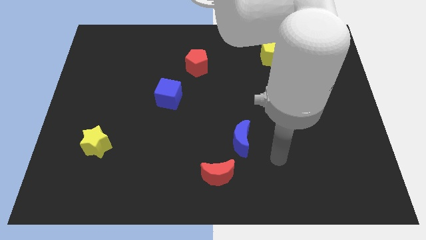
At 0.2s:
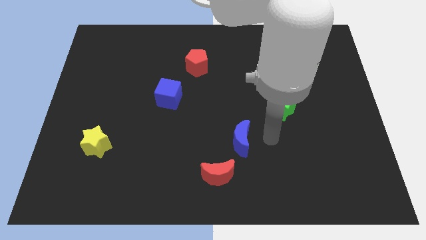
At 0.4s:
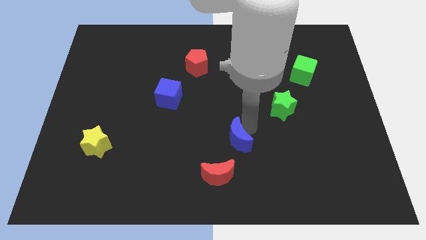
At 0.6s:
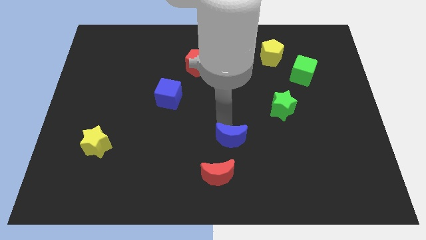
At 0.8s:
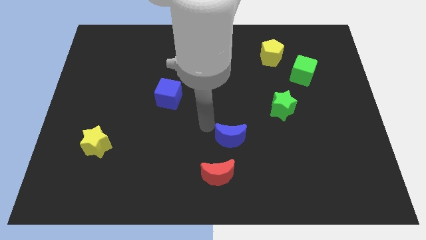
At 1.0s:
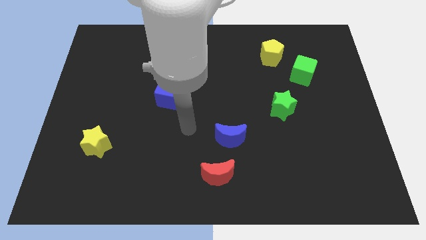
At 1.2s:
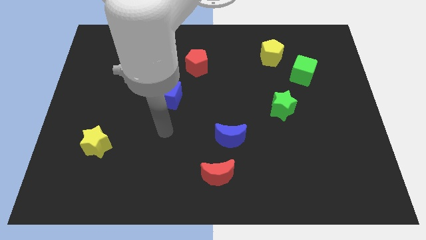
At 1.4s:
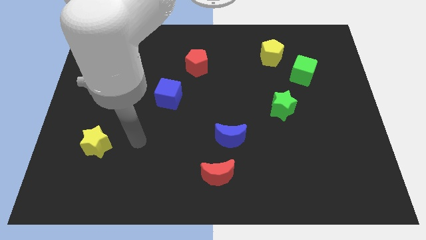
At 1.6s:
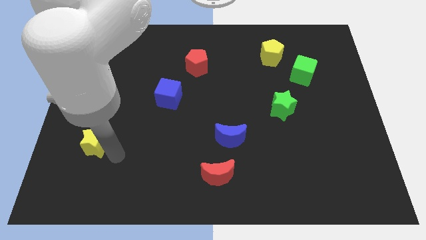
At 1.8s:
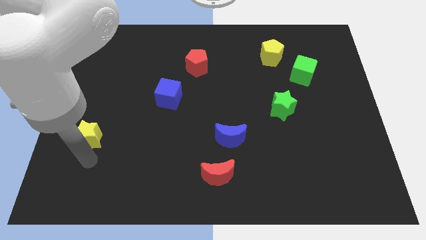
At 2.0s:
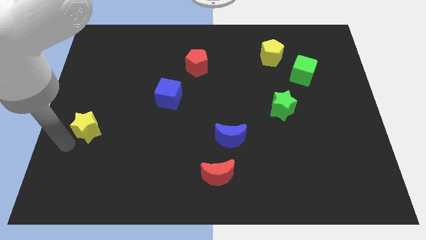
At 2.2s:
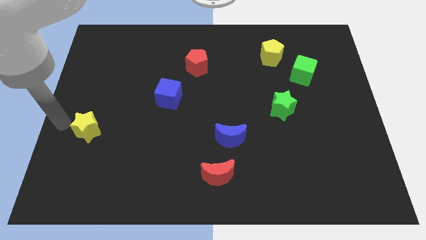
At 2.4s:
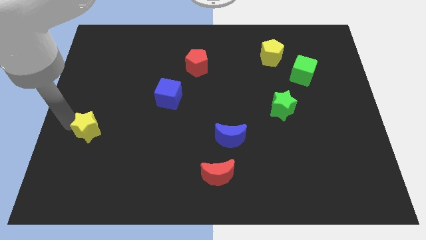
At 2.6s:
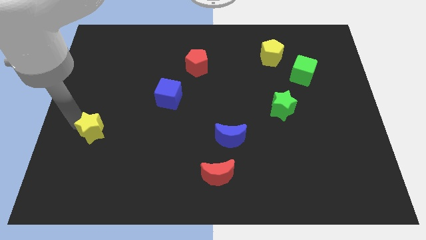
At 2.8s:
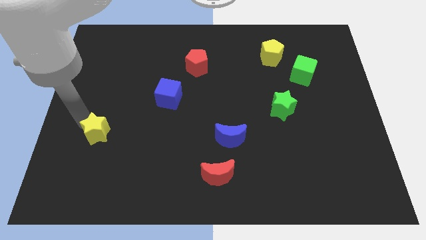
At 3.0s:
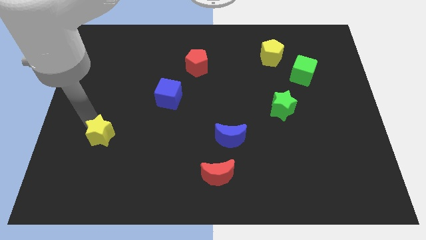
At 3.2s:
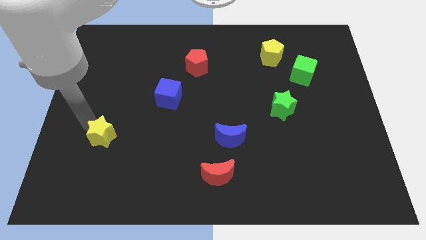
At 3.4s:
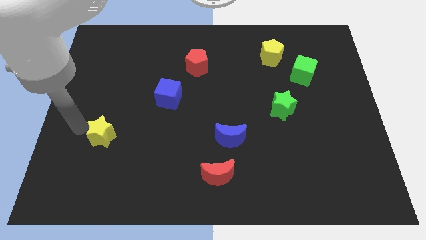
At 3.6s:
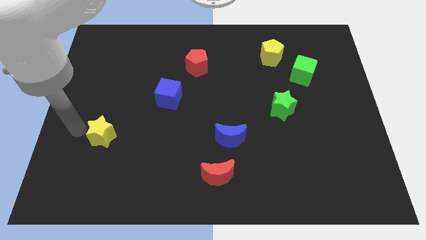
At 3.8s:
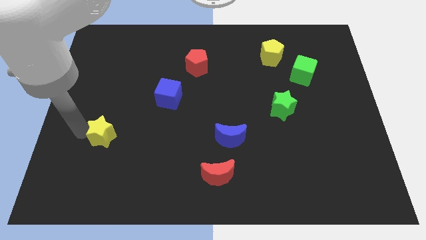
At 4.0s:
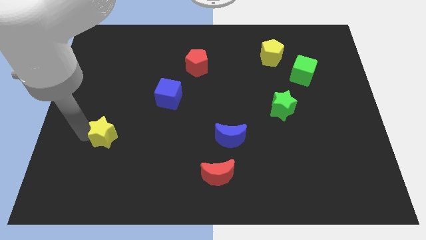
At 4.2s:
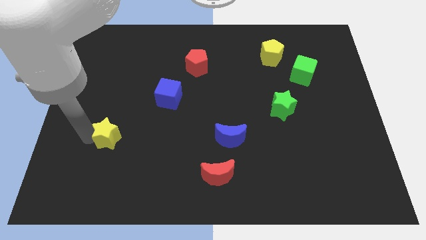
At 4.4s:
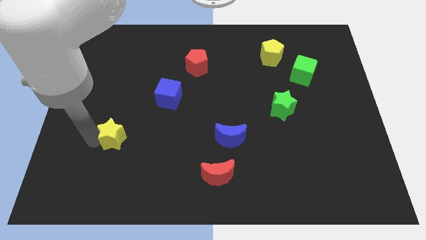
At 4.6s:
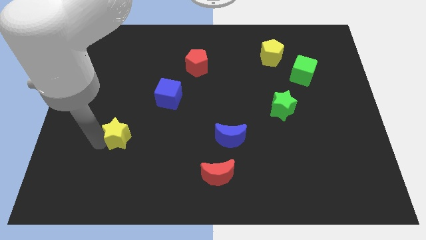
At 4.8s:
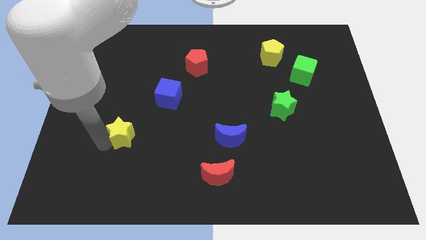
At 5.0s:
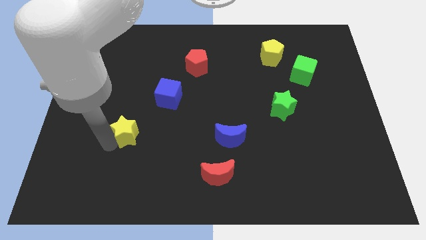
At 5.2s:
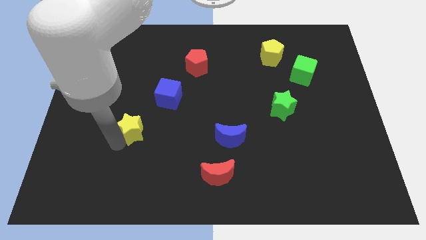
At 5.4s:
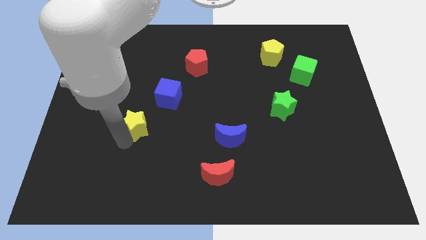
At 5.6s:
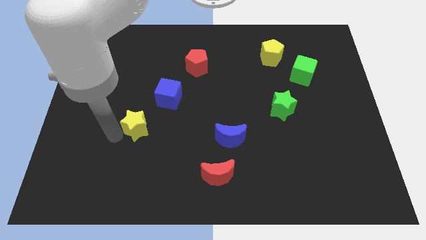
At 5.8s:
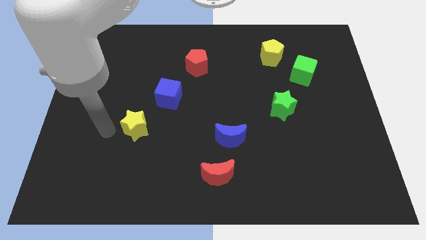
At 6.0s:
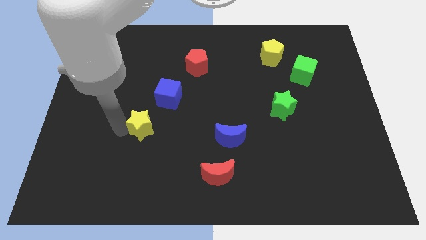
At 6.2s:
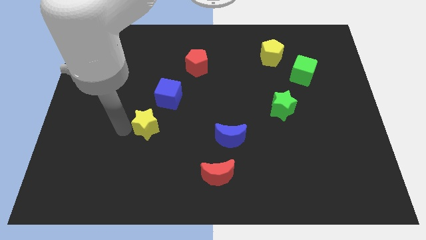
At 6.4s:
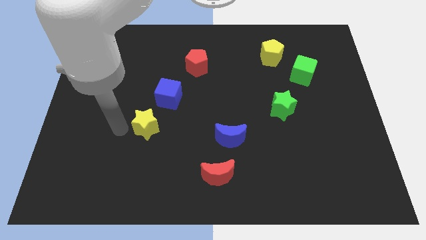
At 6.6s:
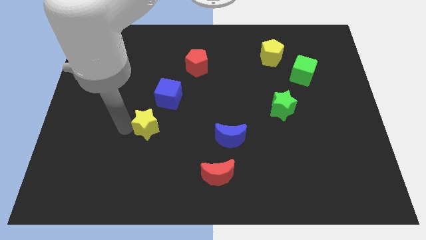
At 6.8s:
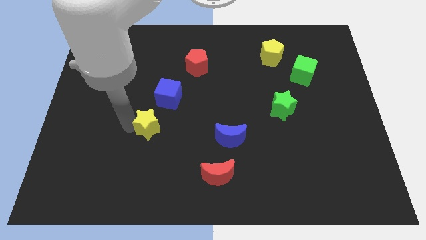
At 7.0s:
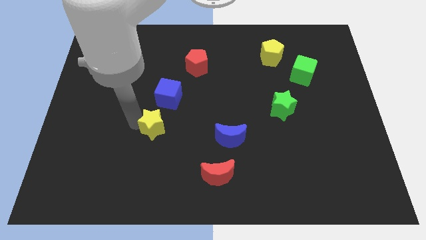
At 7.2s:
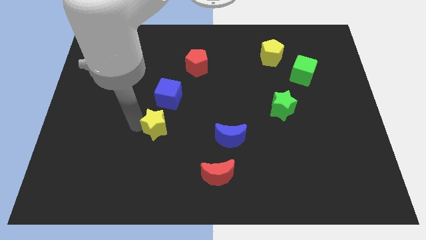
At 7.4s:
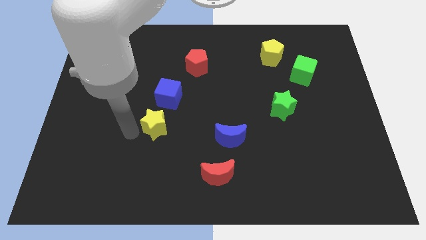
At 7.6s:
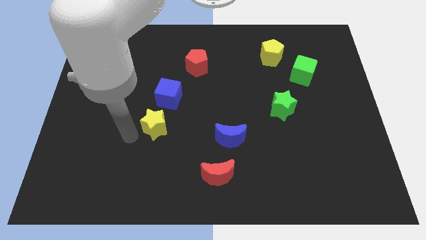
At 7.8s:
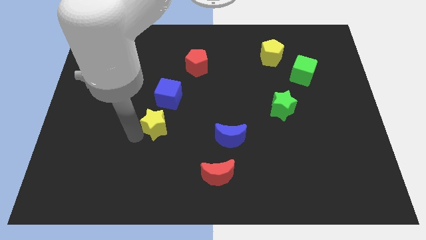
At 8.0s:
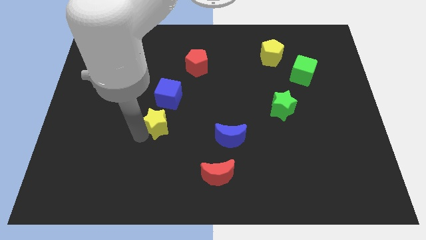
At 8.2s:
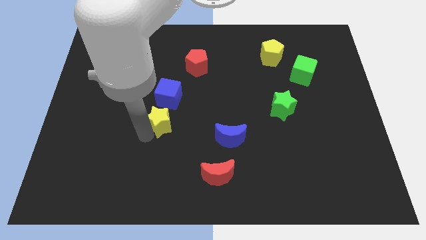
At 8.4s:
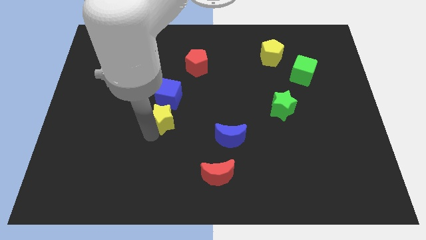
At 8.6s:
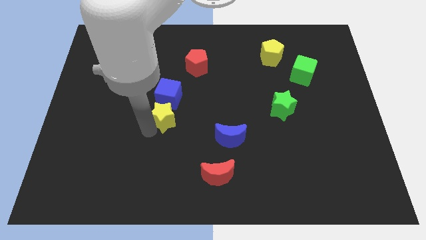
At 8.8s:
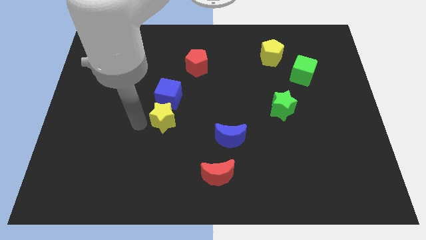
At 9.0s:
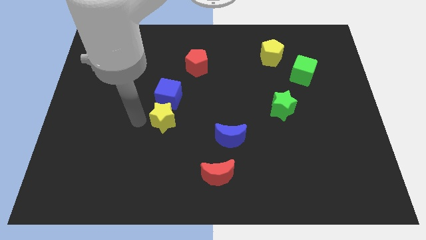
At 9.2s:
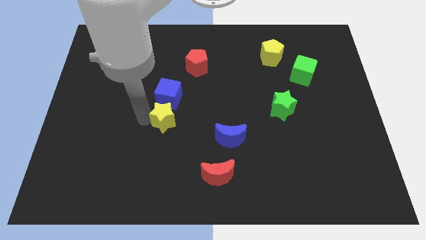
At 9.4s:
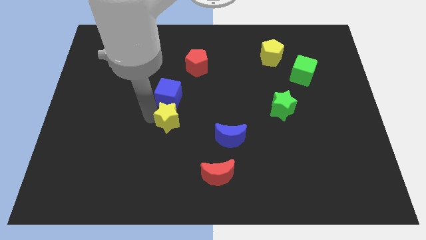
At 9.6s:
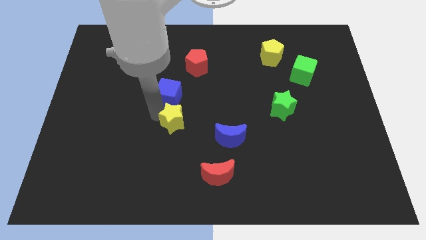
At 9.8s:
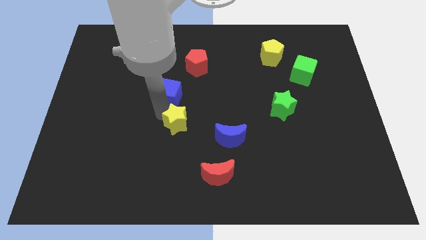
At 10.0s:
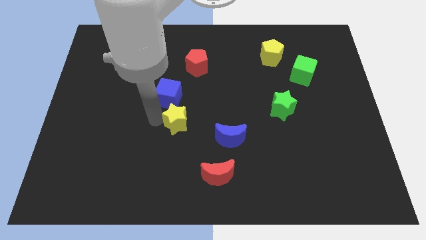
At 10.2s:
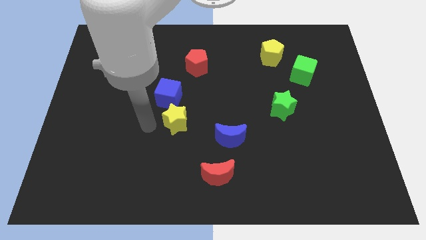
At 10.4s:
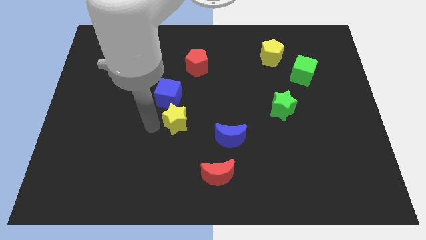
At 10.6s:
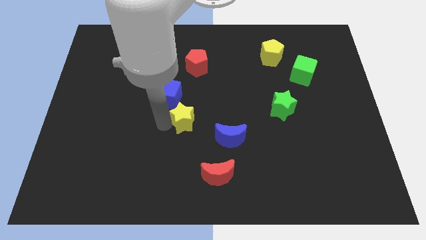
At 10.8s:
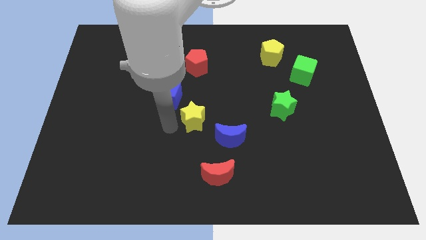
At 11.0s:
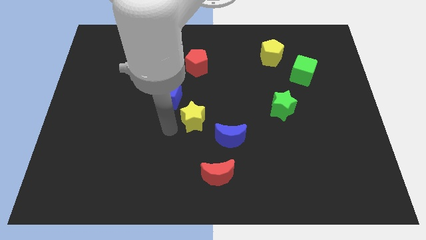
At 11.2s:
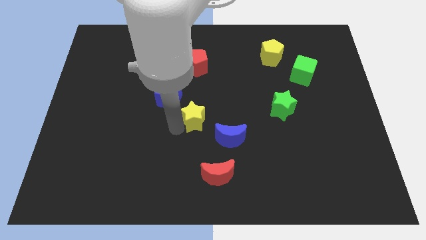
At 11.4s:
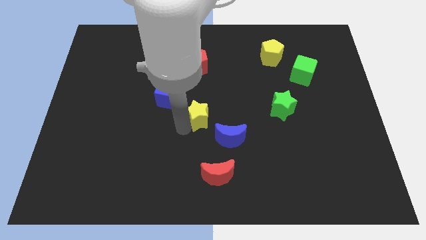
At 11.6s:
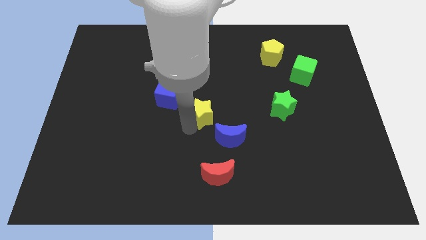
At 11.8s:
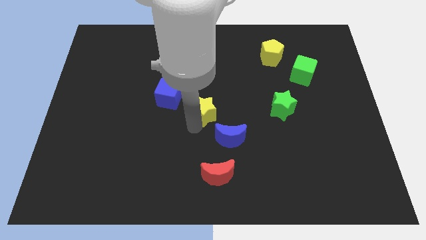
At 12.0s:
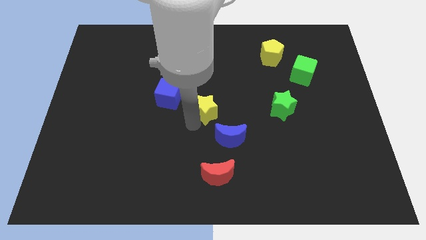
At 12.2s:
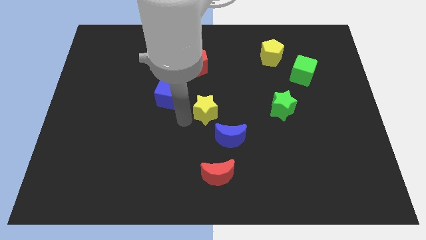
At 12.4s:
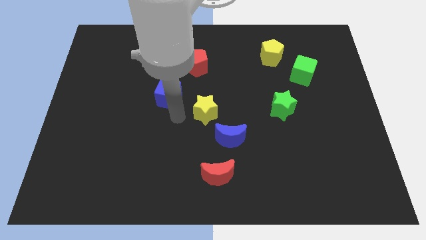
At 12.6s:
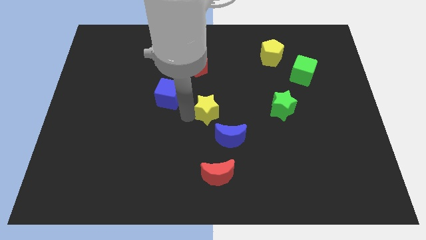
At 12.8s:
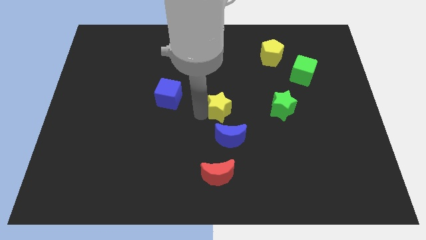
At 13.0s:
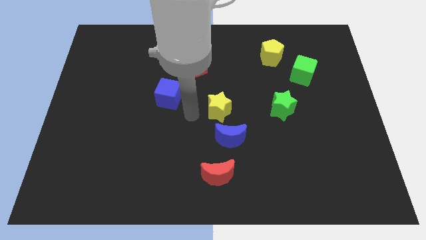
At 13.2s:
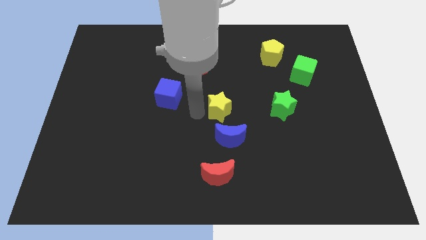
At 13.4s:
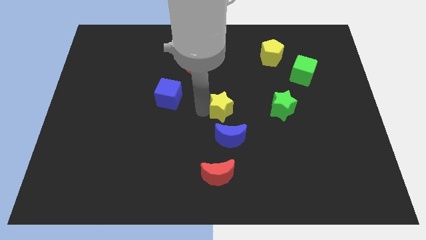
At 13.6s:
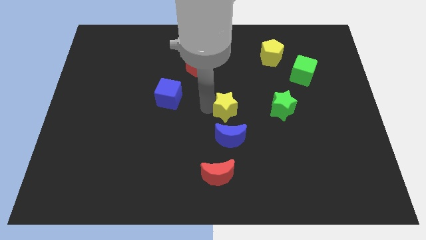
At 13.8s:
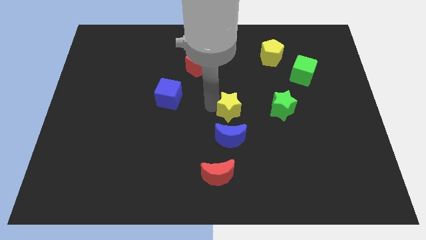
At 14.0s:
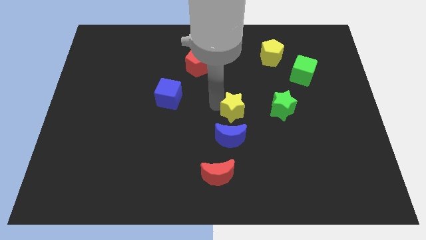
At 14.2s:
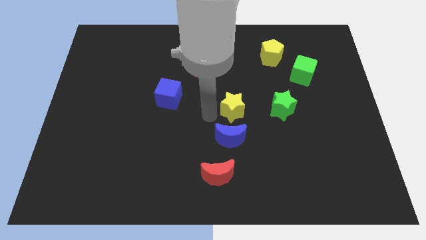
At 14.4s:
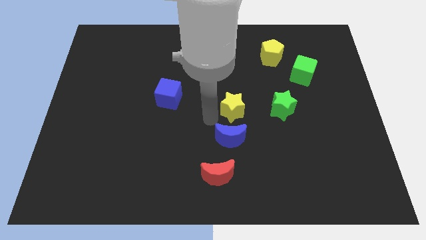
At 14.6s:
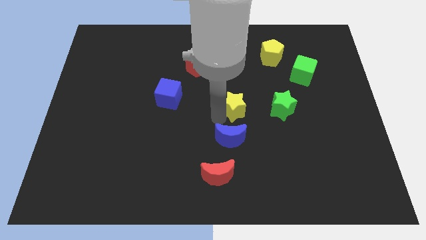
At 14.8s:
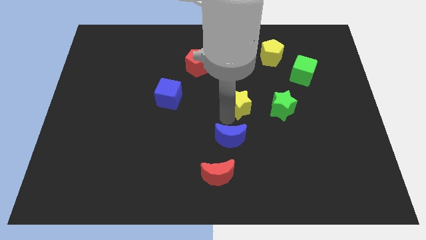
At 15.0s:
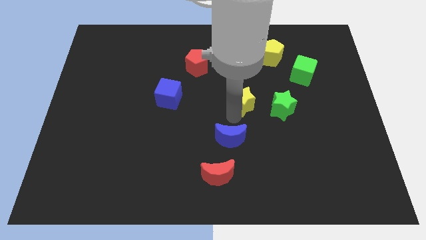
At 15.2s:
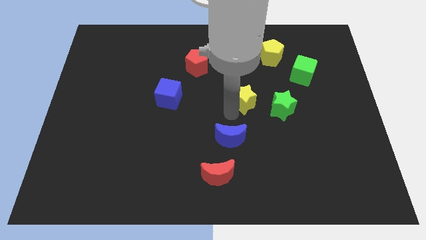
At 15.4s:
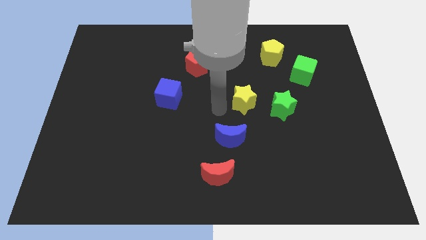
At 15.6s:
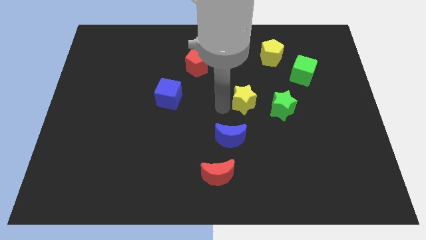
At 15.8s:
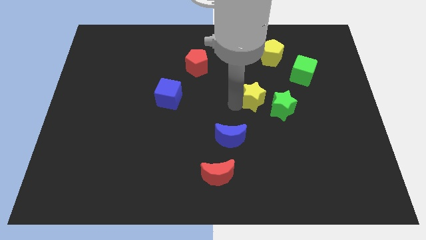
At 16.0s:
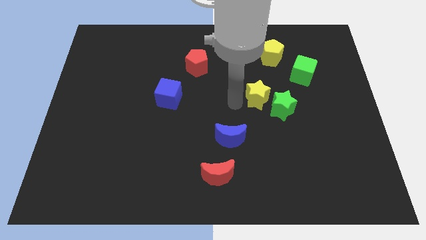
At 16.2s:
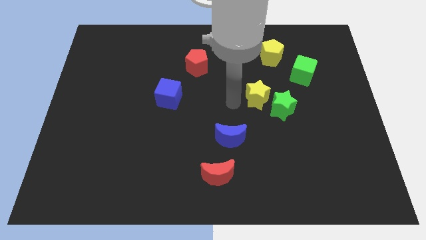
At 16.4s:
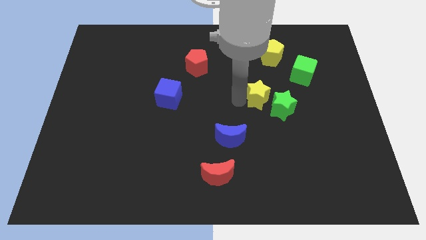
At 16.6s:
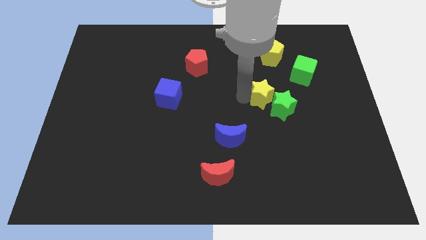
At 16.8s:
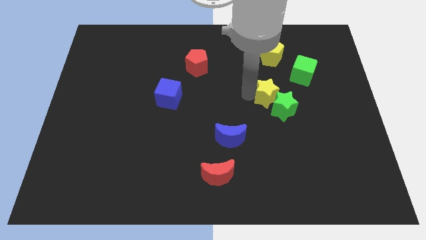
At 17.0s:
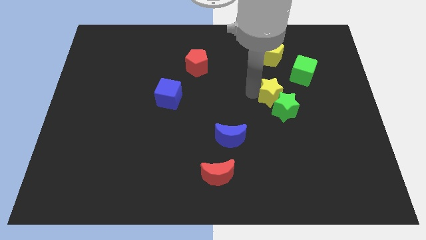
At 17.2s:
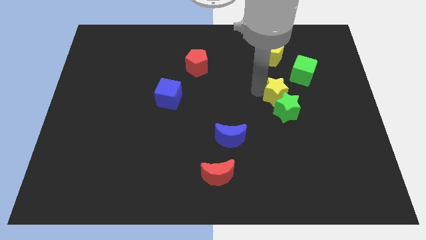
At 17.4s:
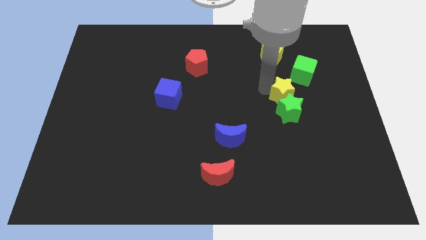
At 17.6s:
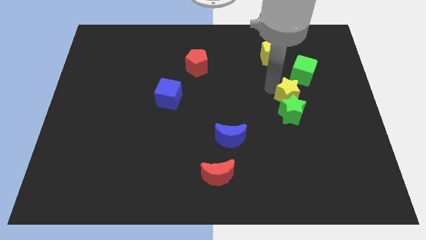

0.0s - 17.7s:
put the yellow star below the green cube
